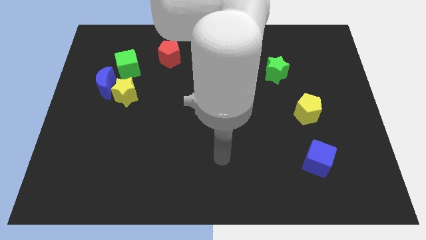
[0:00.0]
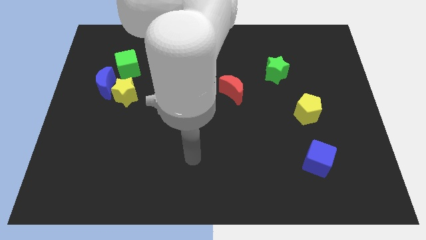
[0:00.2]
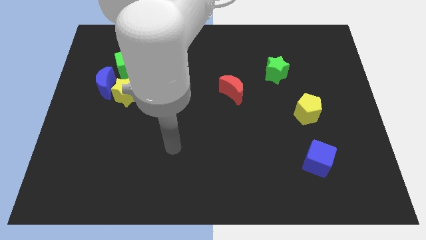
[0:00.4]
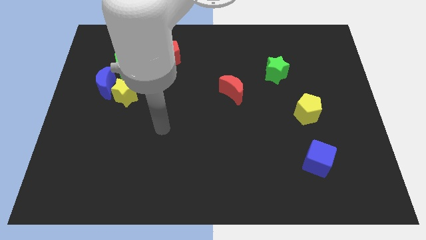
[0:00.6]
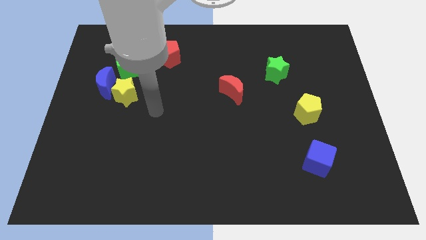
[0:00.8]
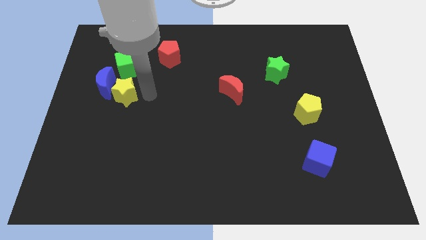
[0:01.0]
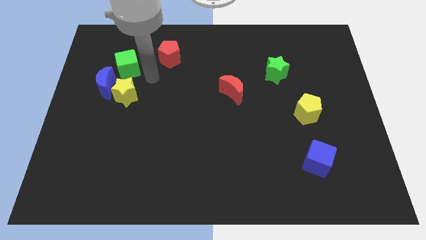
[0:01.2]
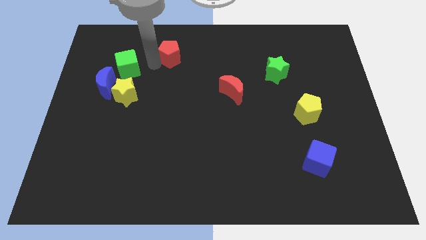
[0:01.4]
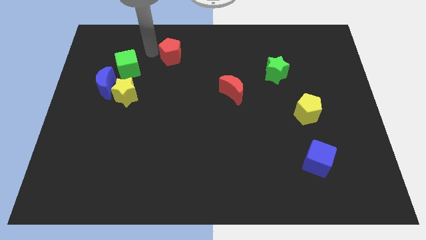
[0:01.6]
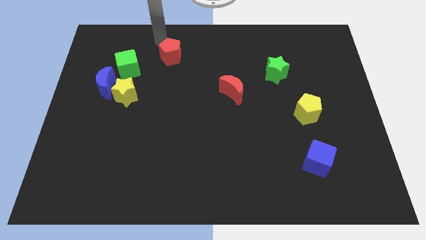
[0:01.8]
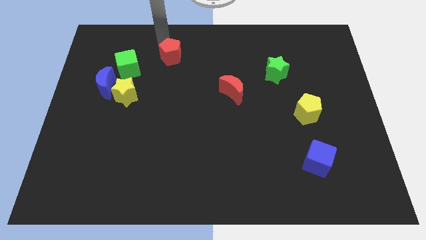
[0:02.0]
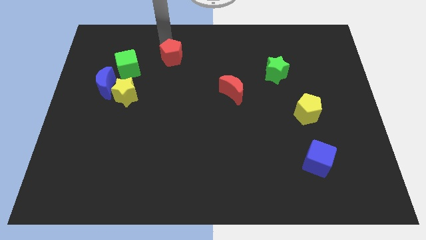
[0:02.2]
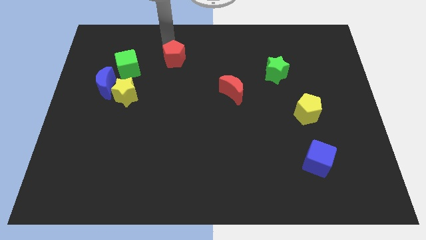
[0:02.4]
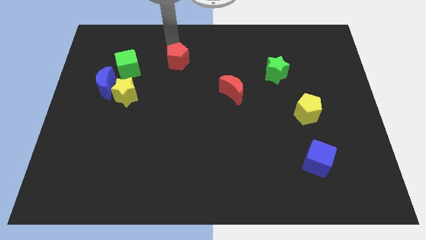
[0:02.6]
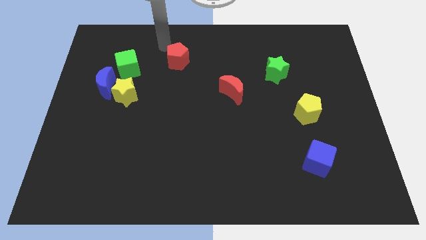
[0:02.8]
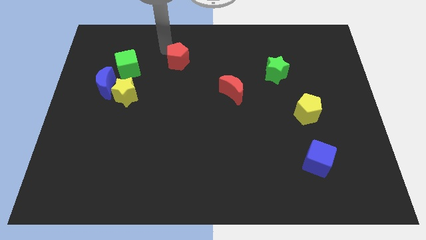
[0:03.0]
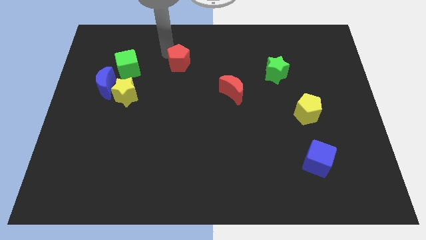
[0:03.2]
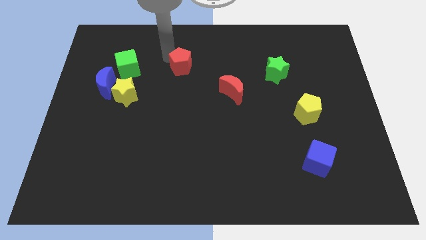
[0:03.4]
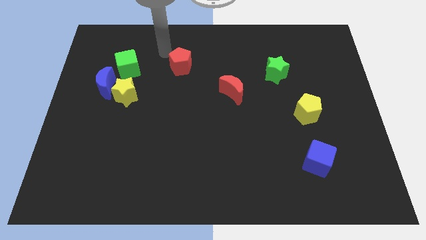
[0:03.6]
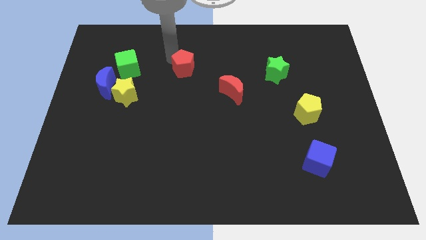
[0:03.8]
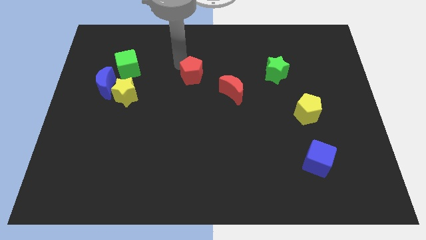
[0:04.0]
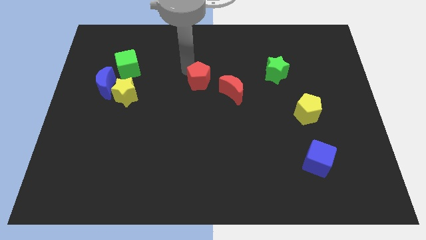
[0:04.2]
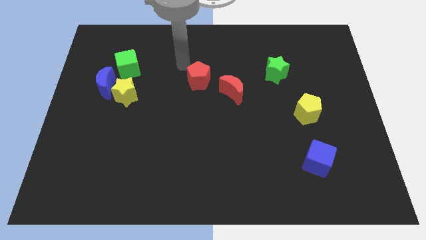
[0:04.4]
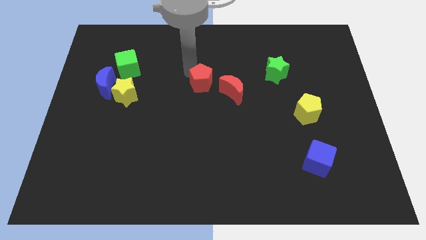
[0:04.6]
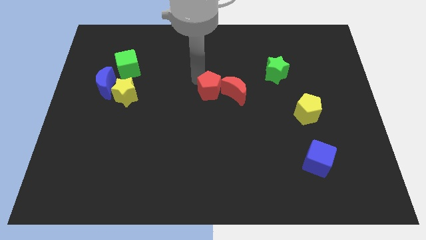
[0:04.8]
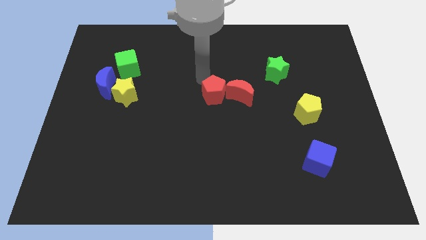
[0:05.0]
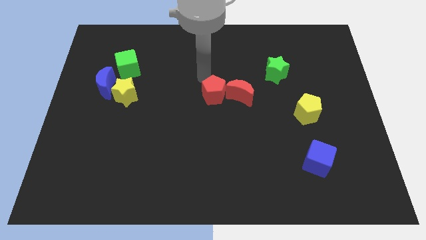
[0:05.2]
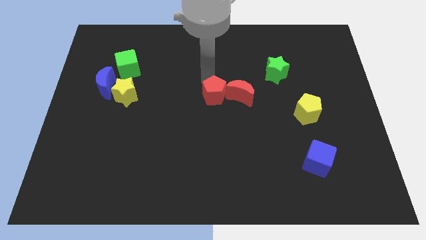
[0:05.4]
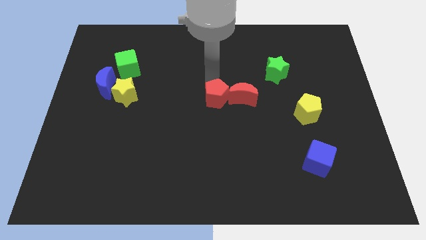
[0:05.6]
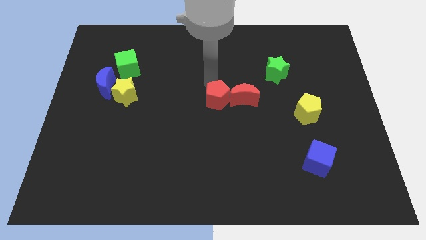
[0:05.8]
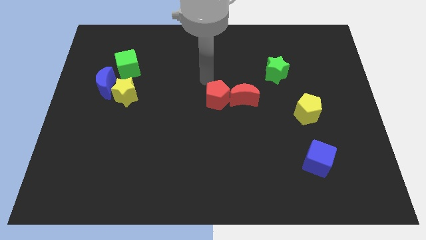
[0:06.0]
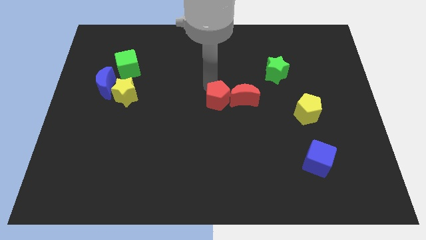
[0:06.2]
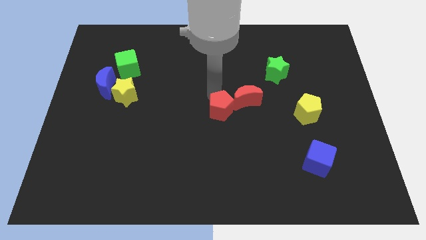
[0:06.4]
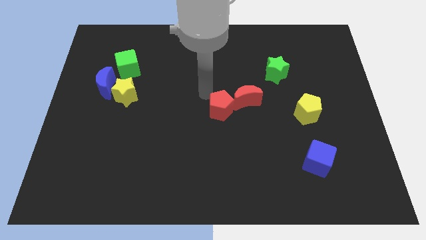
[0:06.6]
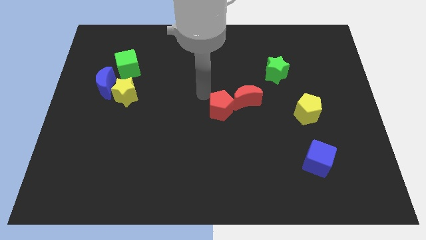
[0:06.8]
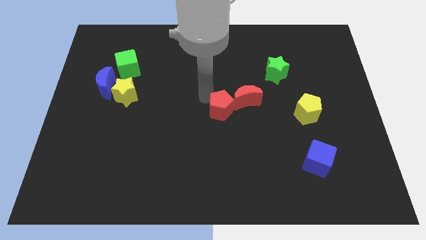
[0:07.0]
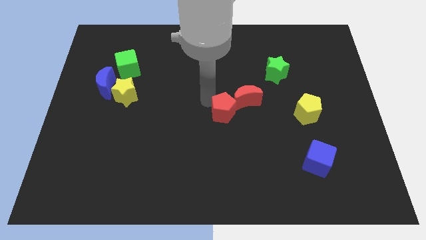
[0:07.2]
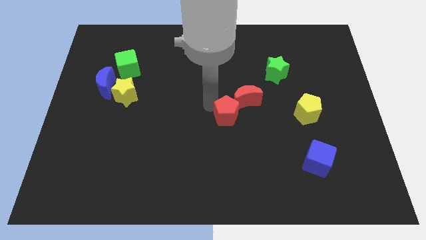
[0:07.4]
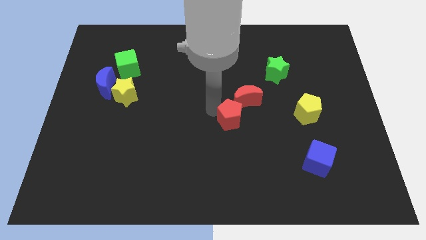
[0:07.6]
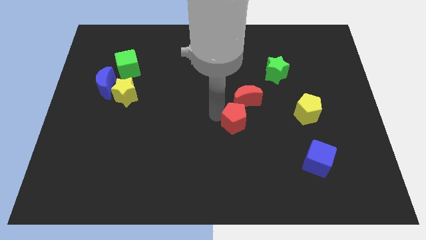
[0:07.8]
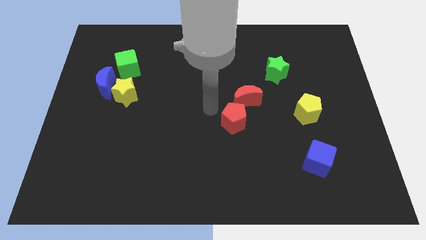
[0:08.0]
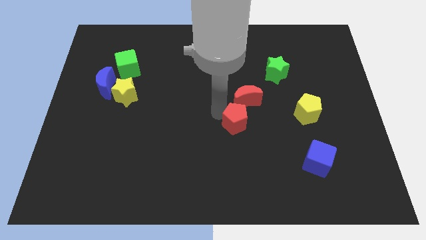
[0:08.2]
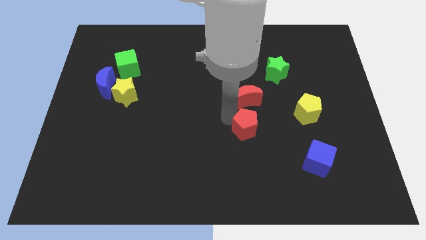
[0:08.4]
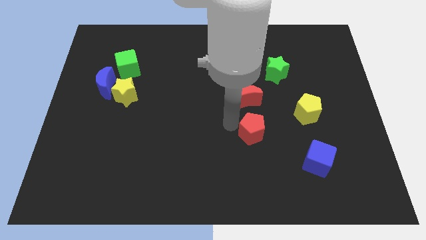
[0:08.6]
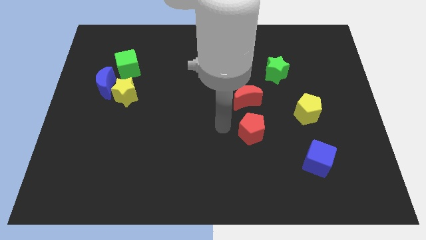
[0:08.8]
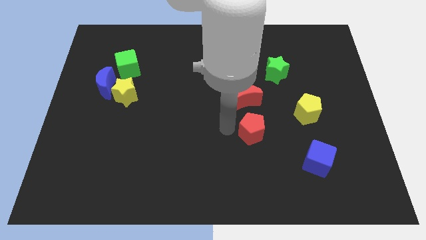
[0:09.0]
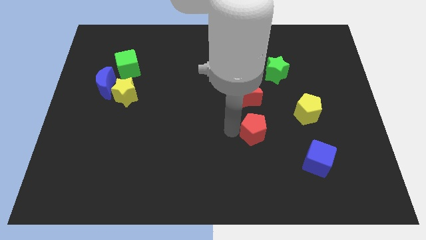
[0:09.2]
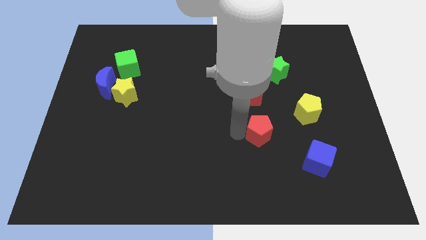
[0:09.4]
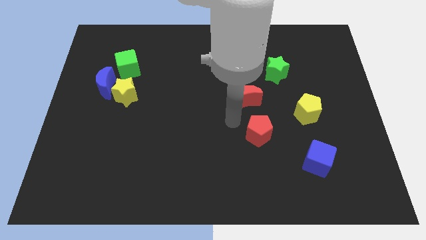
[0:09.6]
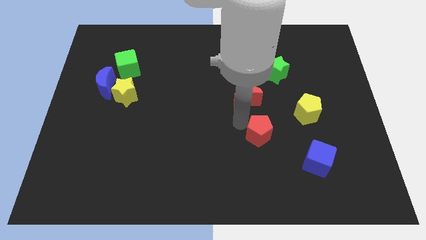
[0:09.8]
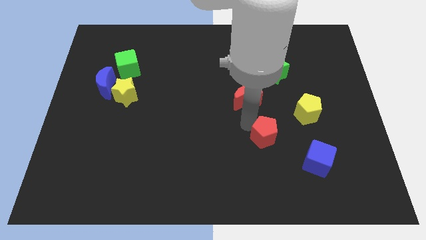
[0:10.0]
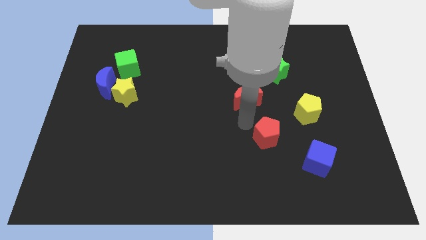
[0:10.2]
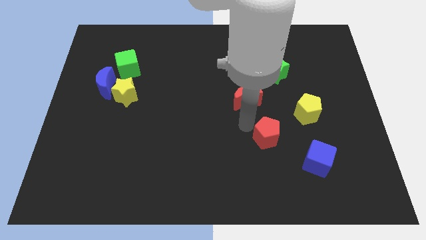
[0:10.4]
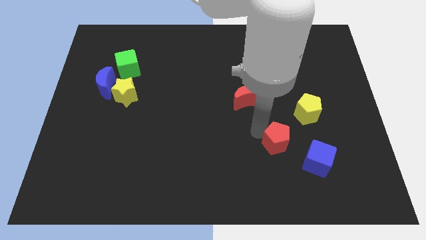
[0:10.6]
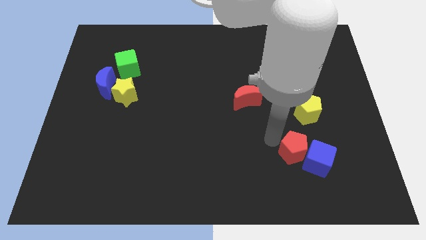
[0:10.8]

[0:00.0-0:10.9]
slide the red pentagon to the blue cube

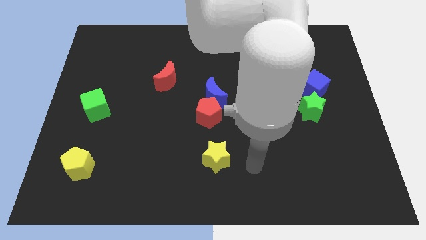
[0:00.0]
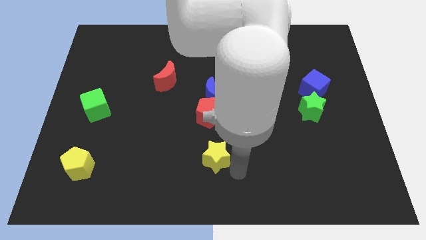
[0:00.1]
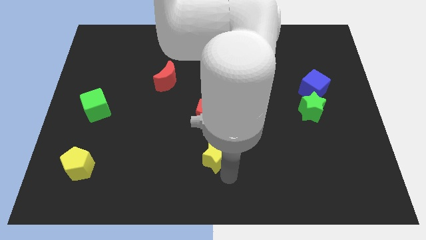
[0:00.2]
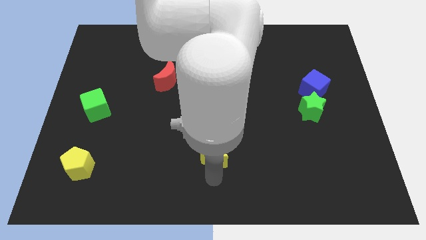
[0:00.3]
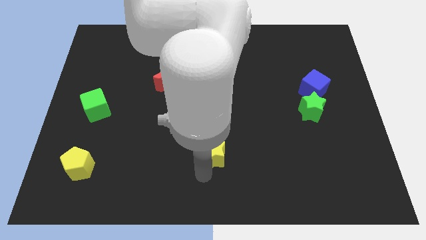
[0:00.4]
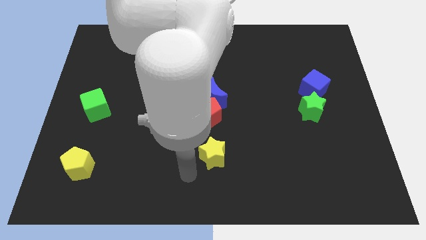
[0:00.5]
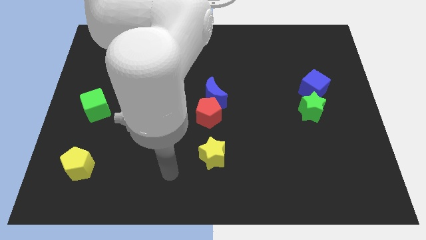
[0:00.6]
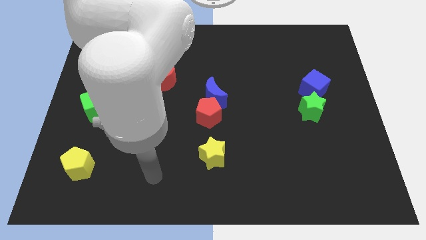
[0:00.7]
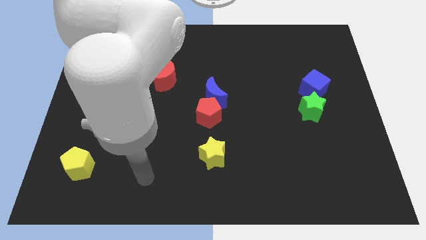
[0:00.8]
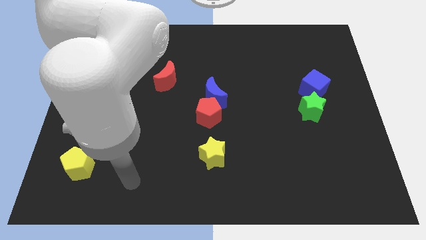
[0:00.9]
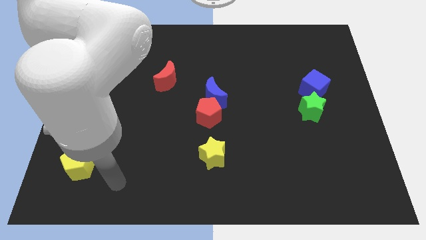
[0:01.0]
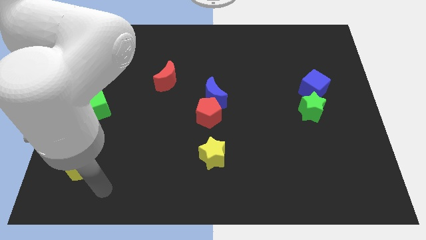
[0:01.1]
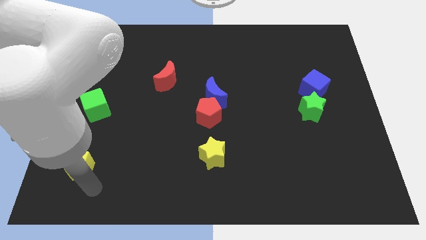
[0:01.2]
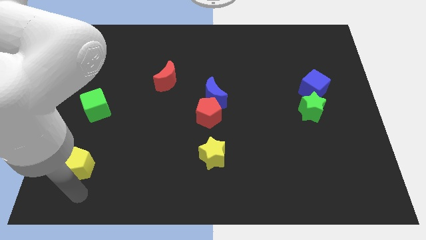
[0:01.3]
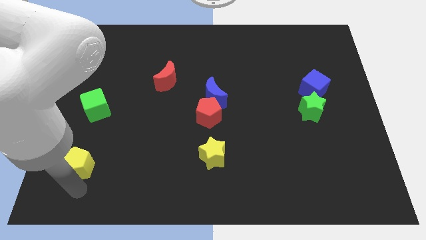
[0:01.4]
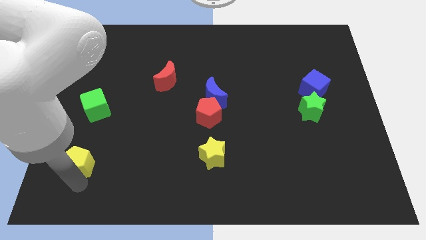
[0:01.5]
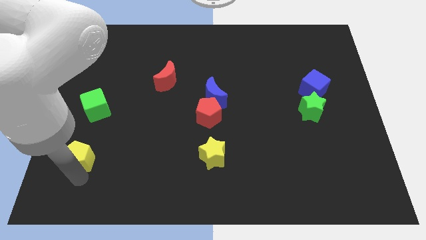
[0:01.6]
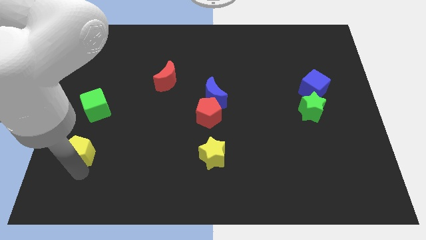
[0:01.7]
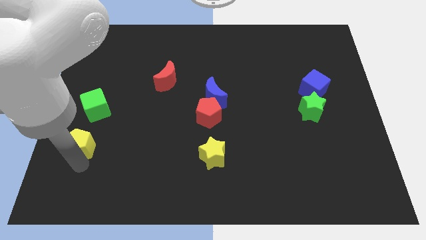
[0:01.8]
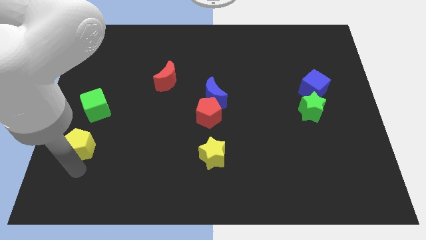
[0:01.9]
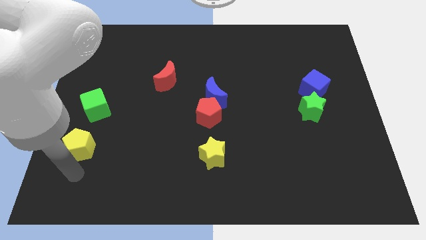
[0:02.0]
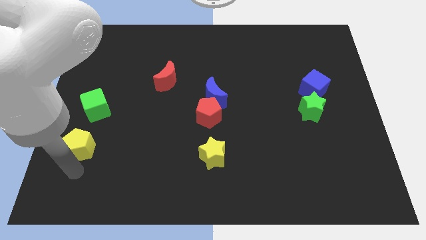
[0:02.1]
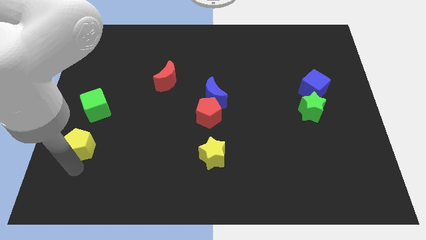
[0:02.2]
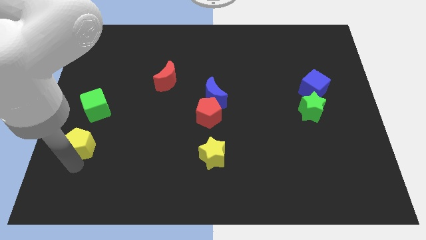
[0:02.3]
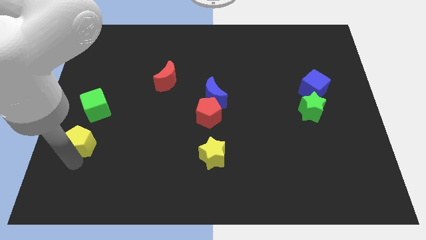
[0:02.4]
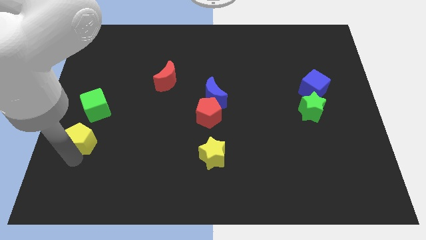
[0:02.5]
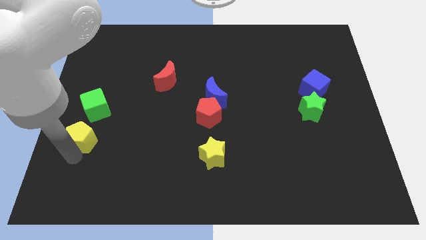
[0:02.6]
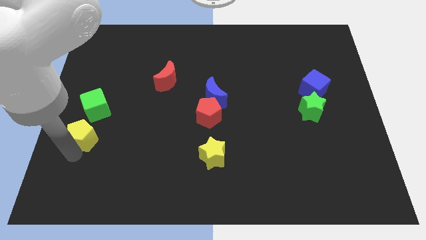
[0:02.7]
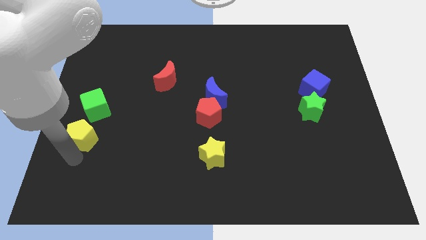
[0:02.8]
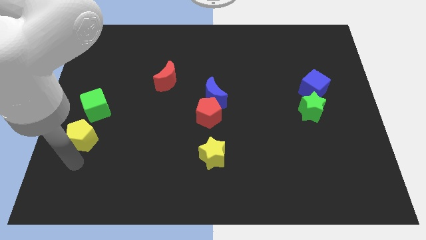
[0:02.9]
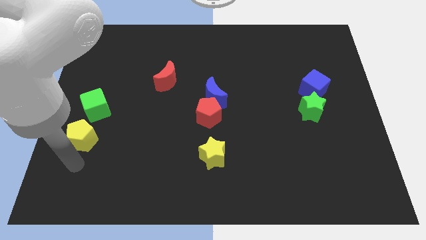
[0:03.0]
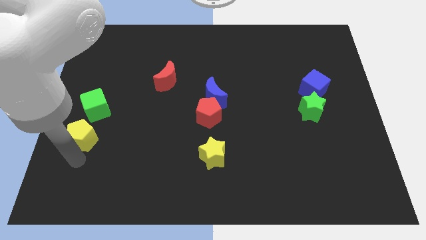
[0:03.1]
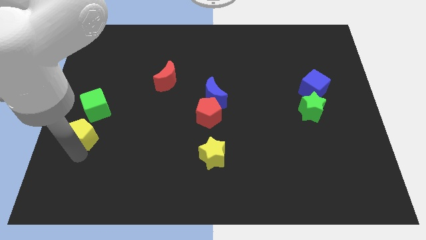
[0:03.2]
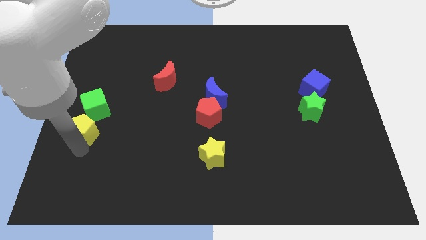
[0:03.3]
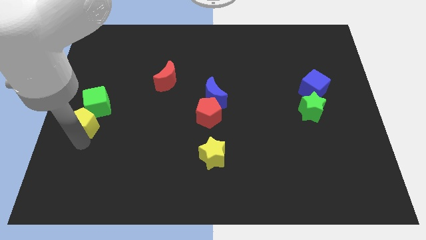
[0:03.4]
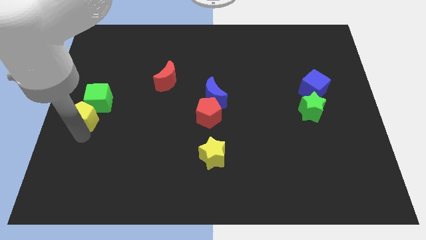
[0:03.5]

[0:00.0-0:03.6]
put the yellow pentagon next to the green cube
